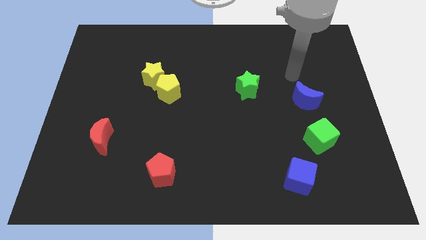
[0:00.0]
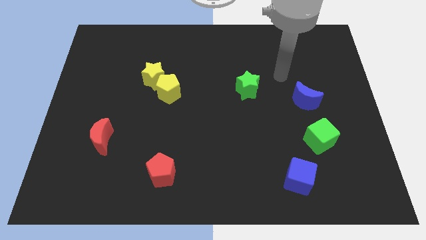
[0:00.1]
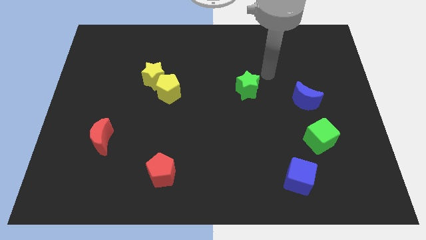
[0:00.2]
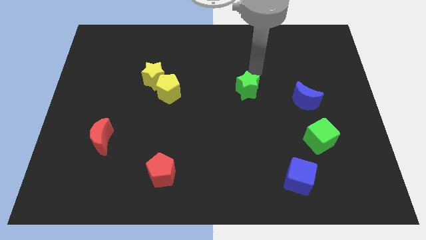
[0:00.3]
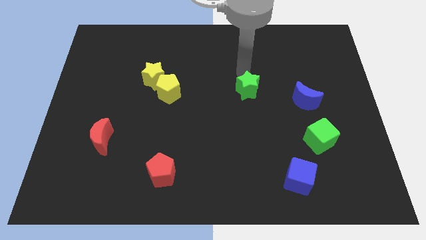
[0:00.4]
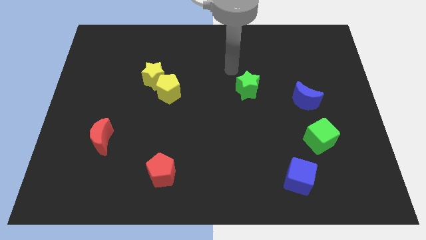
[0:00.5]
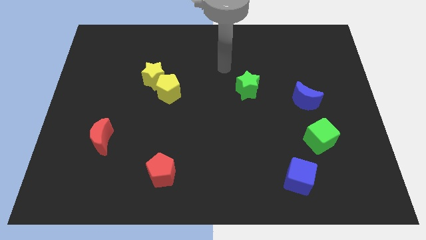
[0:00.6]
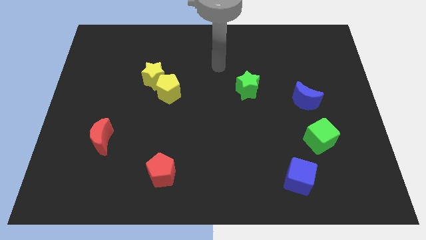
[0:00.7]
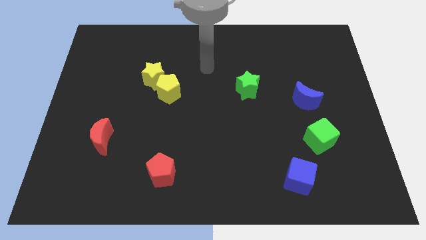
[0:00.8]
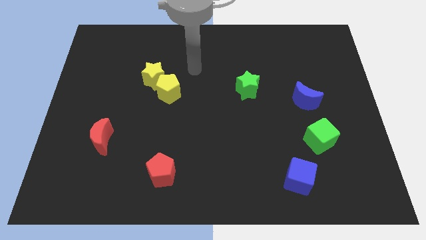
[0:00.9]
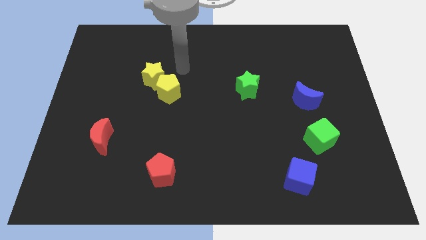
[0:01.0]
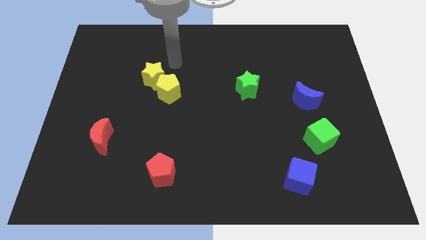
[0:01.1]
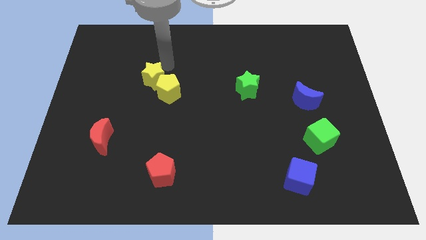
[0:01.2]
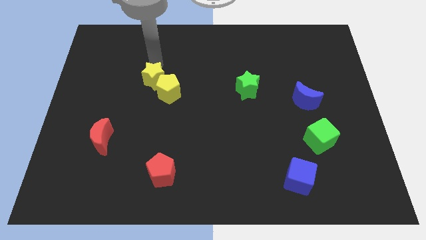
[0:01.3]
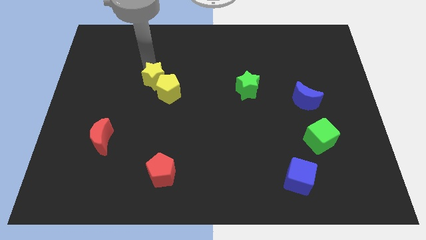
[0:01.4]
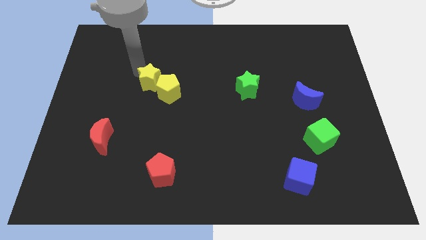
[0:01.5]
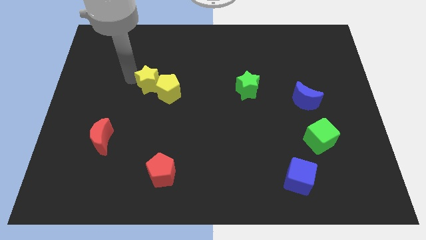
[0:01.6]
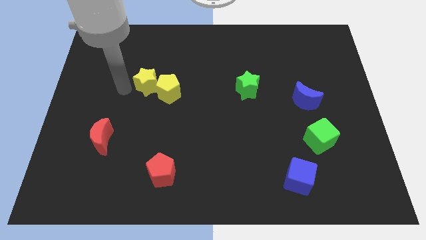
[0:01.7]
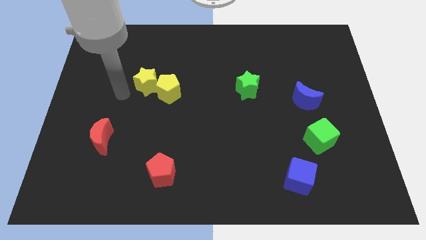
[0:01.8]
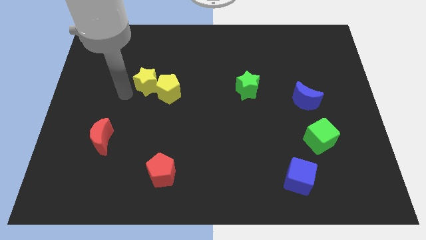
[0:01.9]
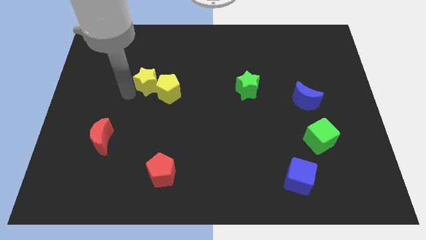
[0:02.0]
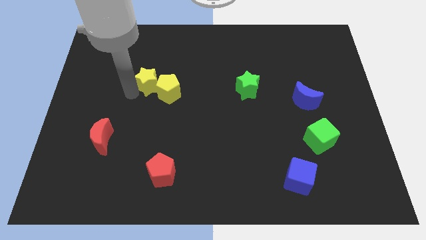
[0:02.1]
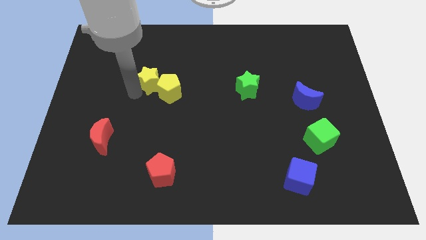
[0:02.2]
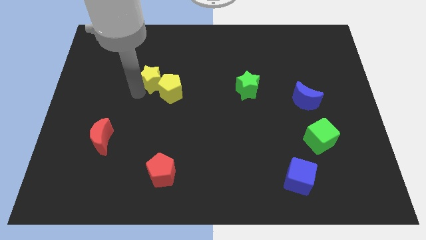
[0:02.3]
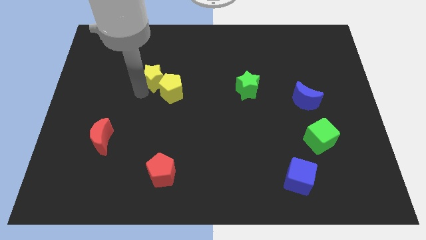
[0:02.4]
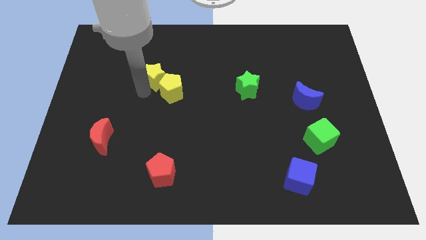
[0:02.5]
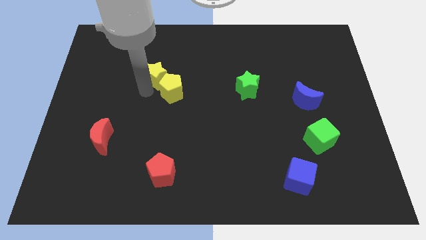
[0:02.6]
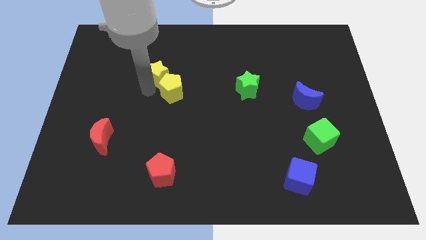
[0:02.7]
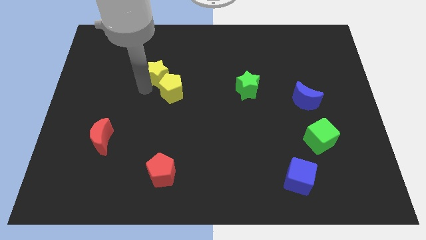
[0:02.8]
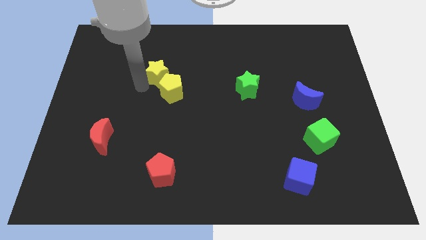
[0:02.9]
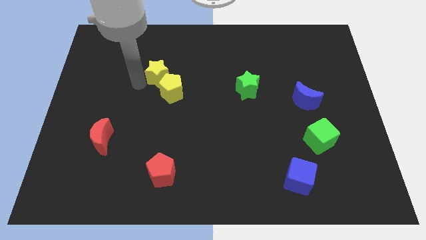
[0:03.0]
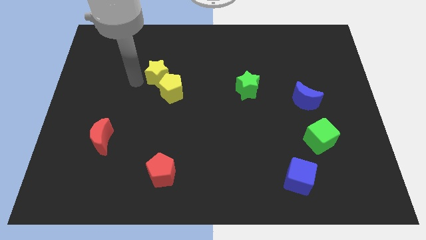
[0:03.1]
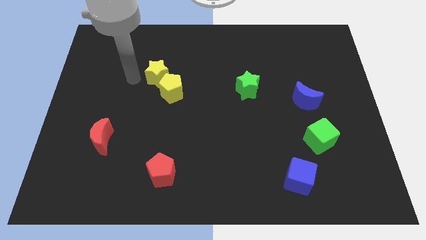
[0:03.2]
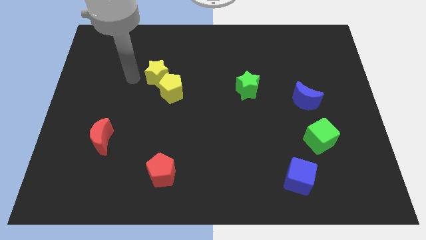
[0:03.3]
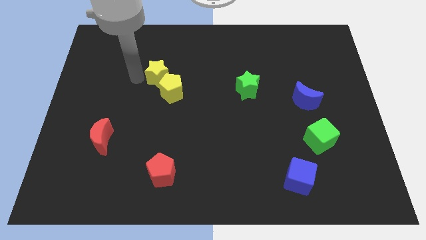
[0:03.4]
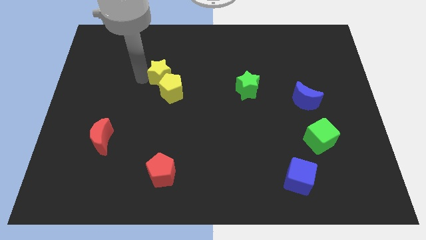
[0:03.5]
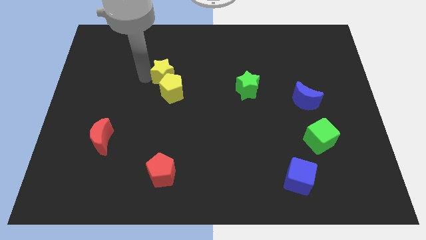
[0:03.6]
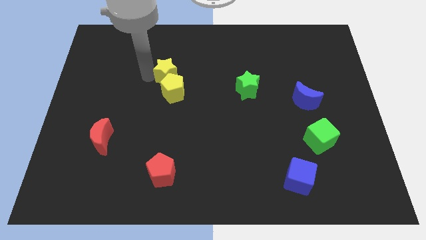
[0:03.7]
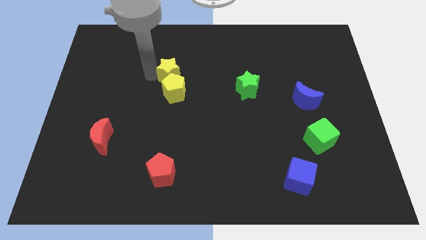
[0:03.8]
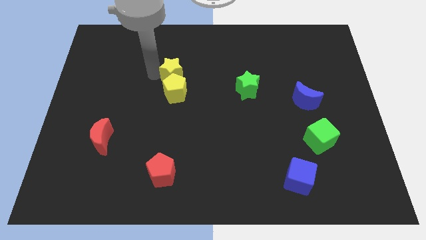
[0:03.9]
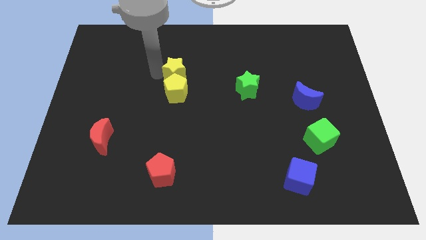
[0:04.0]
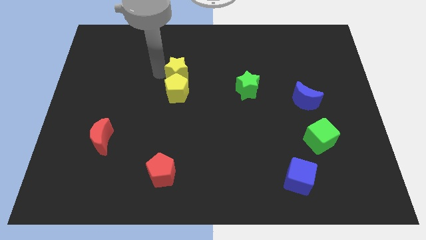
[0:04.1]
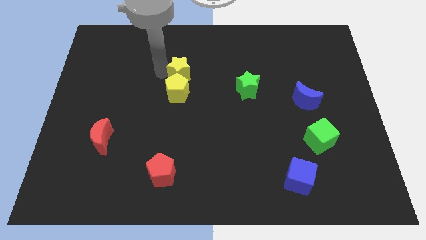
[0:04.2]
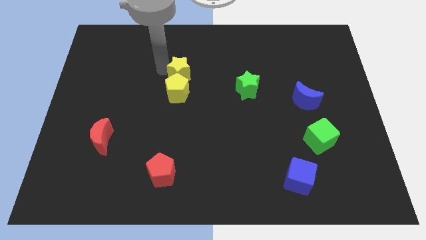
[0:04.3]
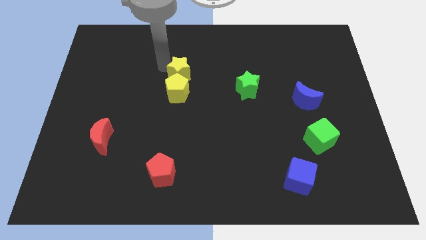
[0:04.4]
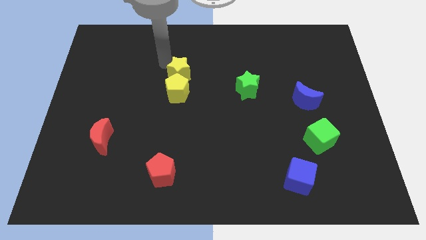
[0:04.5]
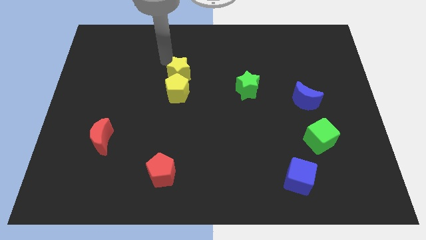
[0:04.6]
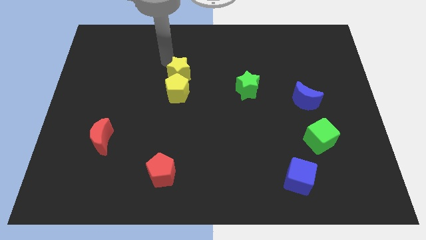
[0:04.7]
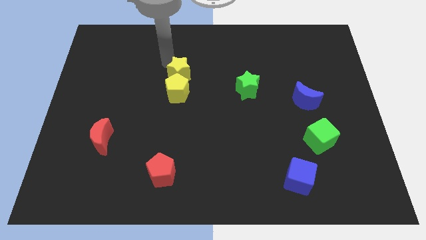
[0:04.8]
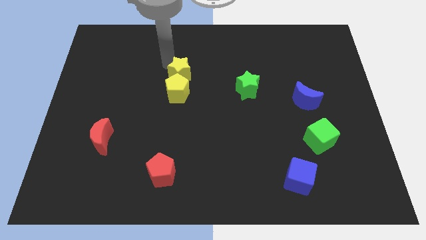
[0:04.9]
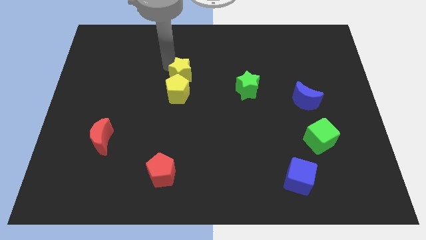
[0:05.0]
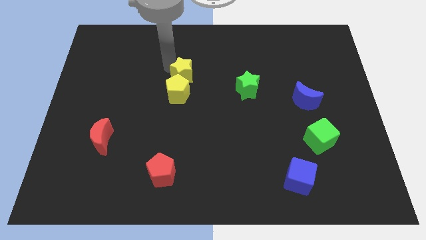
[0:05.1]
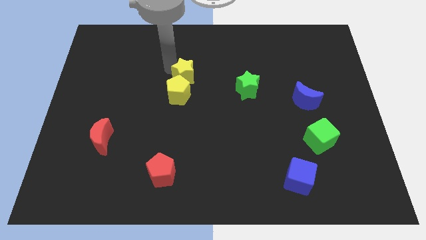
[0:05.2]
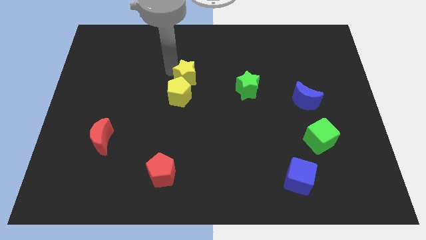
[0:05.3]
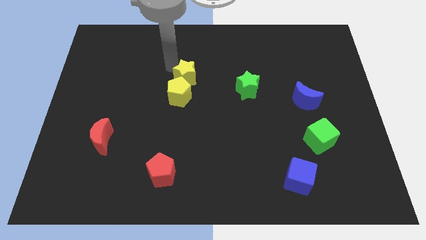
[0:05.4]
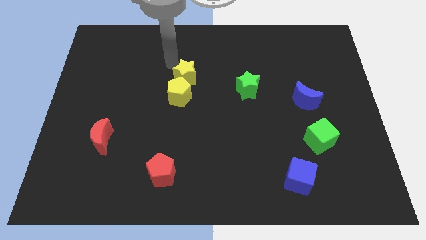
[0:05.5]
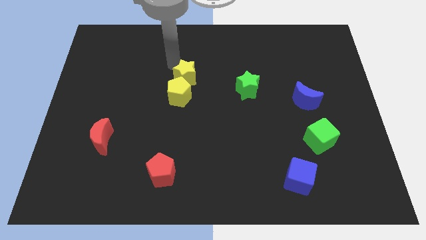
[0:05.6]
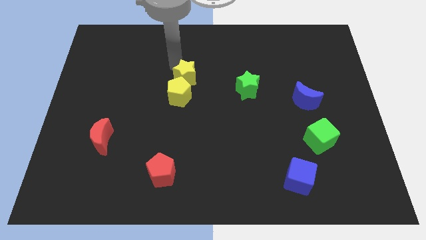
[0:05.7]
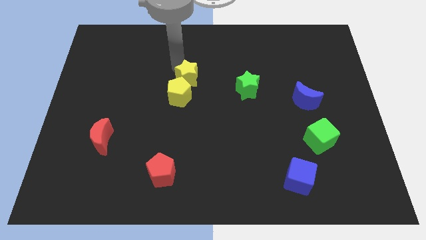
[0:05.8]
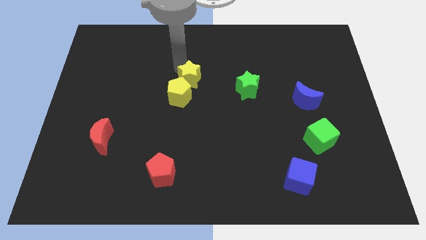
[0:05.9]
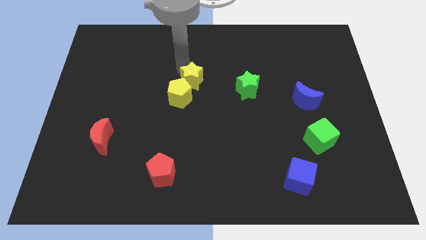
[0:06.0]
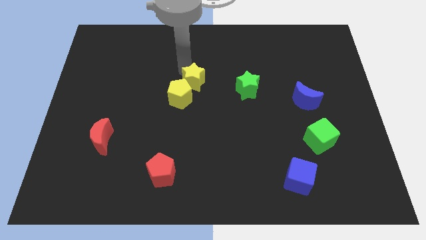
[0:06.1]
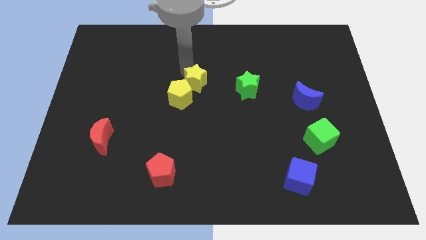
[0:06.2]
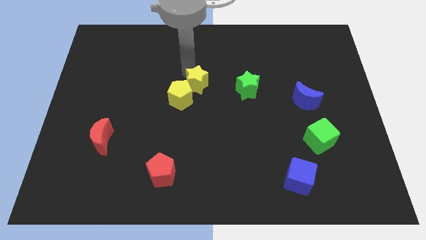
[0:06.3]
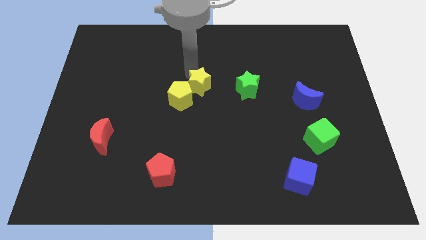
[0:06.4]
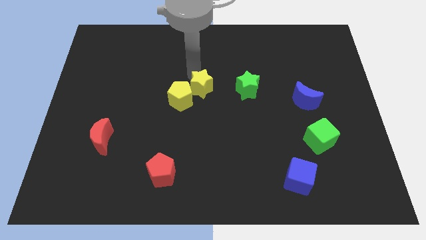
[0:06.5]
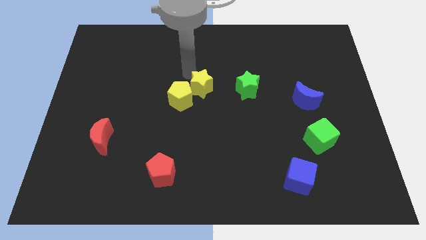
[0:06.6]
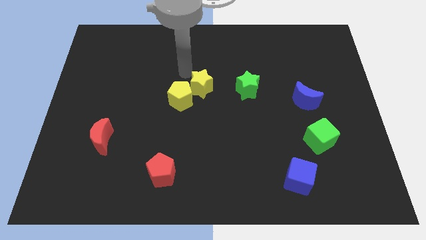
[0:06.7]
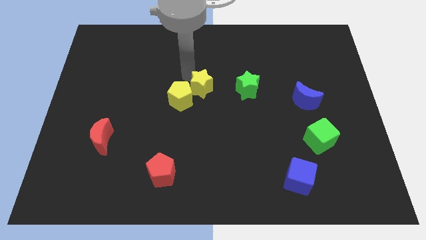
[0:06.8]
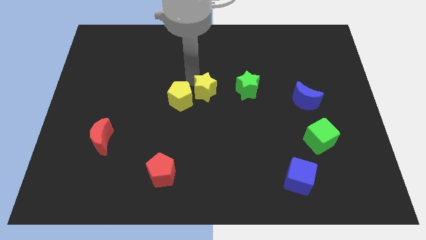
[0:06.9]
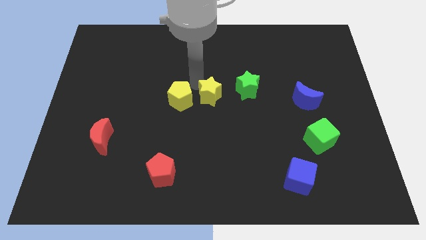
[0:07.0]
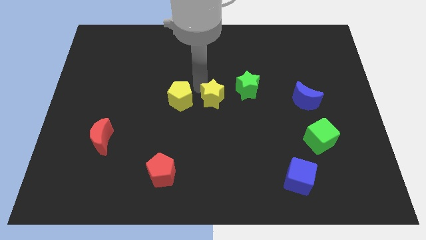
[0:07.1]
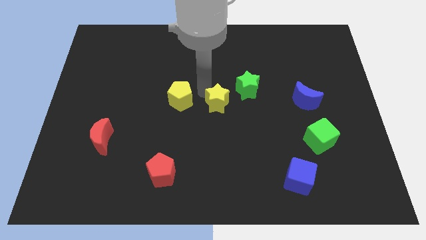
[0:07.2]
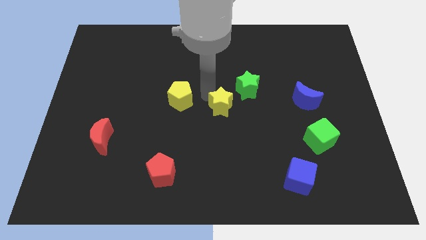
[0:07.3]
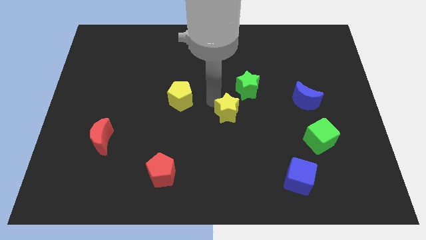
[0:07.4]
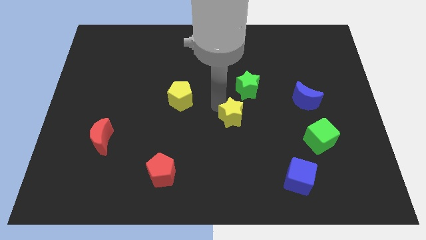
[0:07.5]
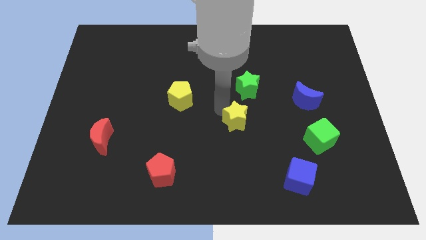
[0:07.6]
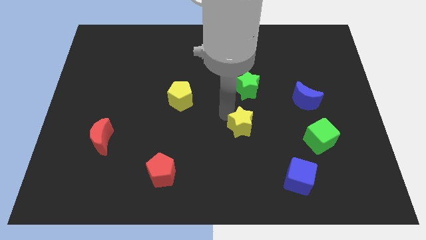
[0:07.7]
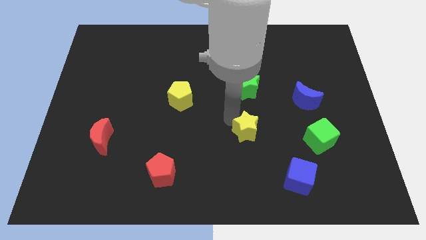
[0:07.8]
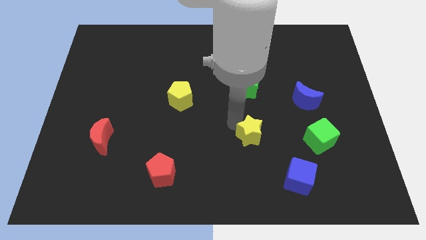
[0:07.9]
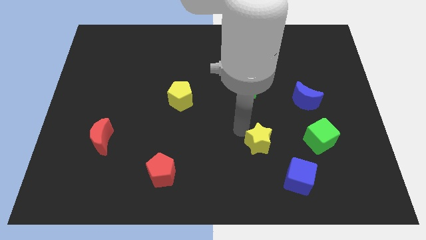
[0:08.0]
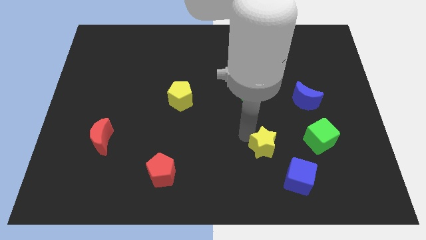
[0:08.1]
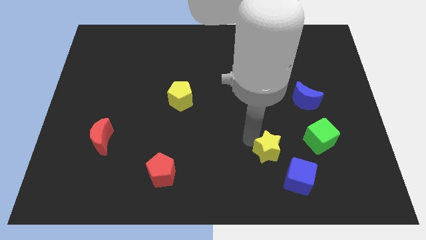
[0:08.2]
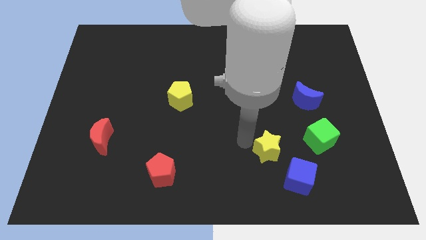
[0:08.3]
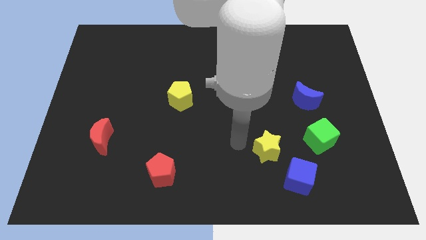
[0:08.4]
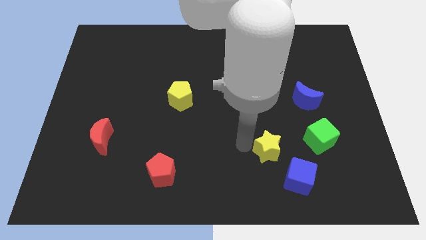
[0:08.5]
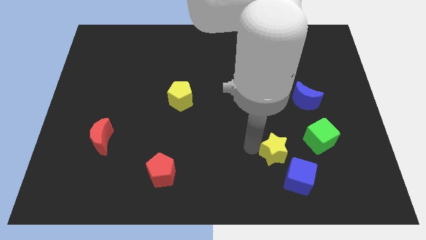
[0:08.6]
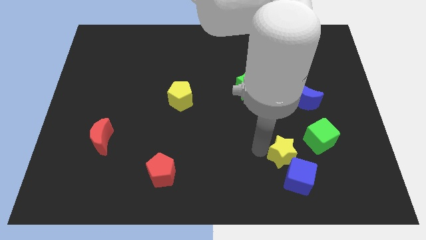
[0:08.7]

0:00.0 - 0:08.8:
put the yellow star to the bottom left side of the green cube
